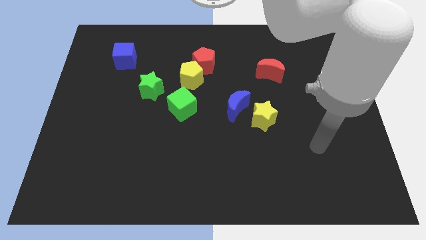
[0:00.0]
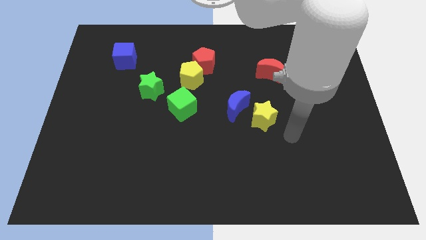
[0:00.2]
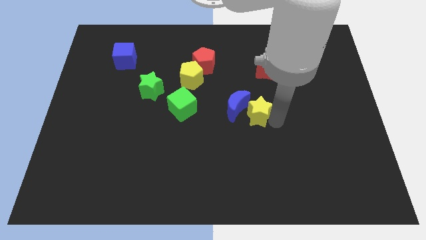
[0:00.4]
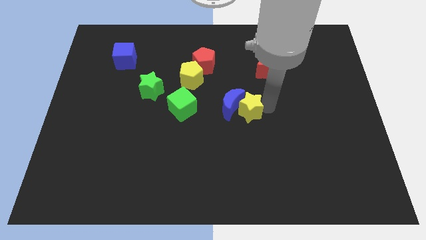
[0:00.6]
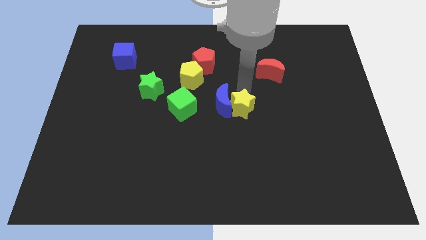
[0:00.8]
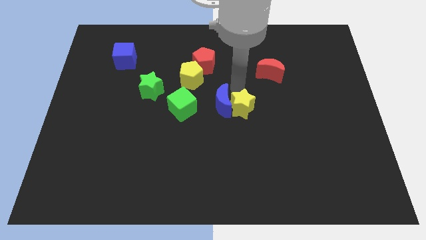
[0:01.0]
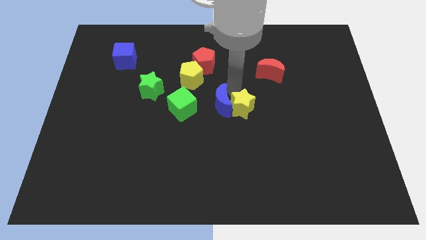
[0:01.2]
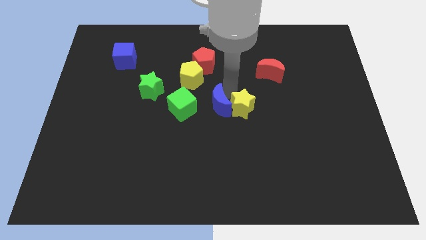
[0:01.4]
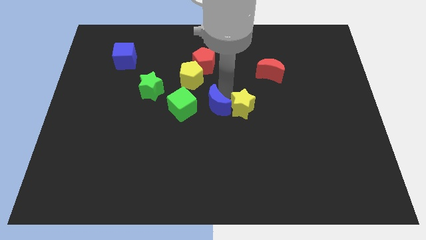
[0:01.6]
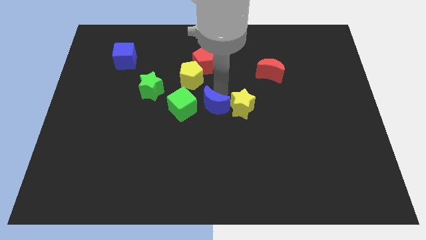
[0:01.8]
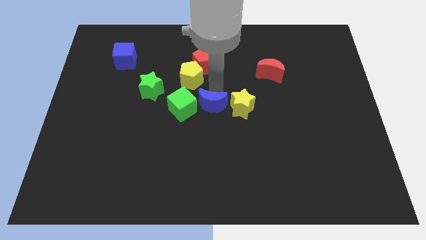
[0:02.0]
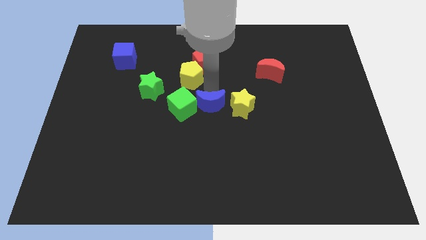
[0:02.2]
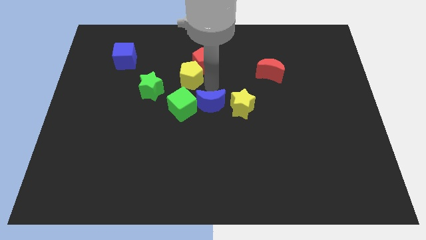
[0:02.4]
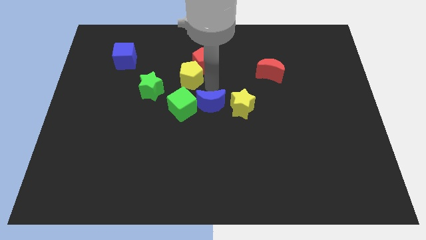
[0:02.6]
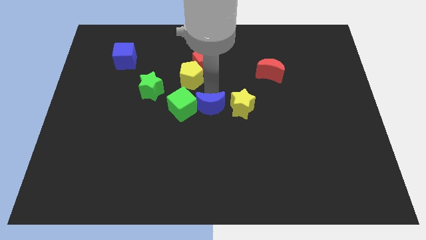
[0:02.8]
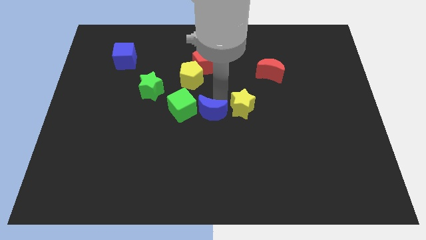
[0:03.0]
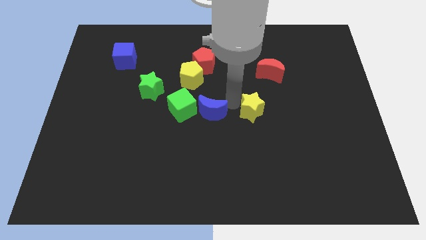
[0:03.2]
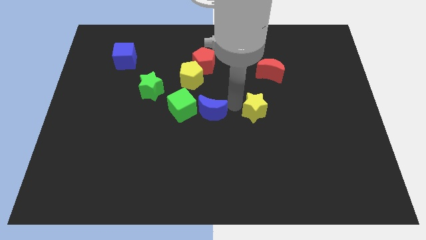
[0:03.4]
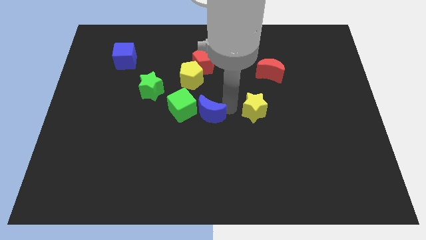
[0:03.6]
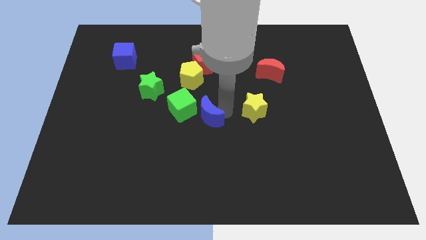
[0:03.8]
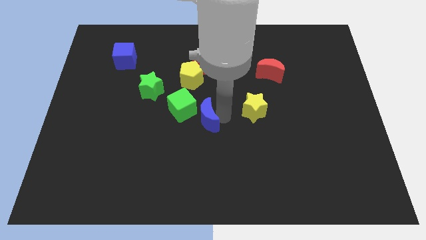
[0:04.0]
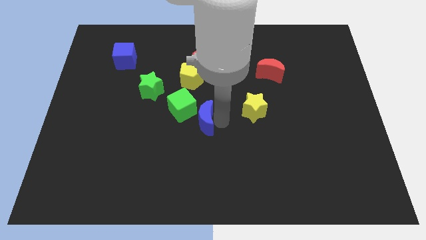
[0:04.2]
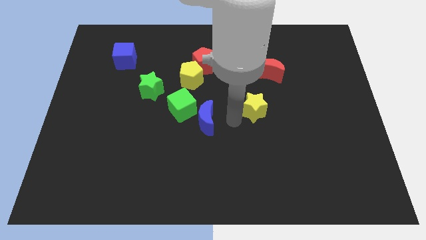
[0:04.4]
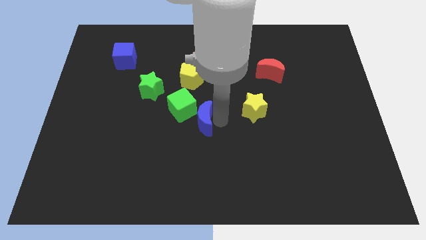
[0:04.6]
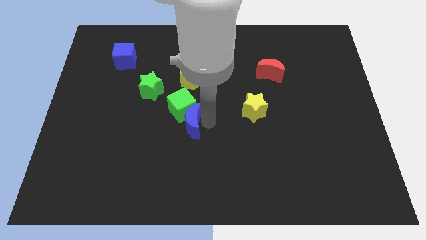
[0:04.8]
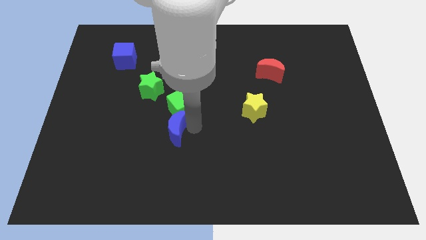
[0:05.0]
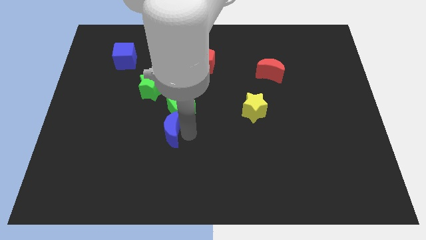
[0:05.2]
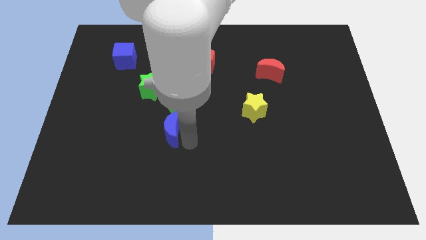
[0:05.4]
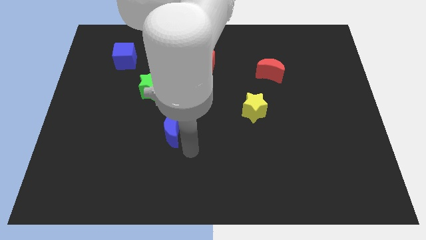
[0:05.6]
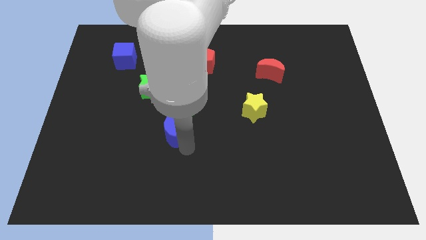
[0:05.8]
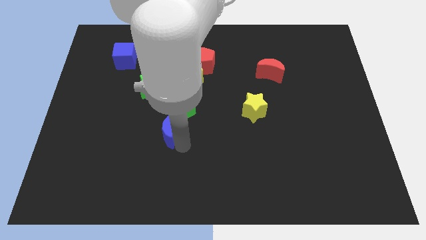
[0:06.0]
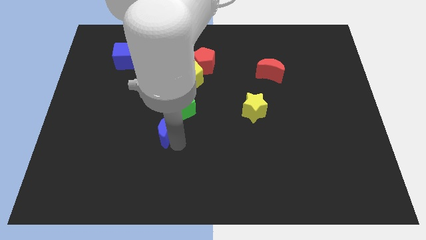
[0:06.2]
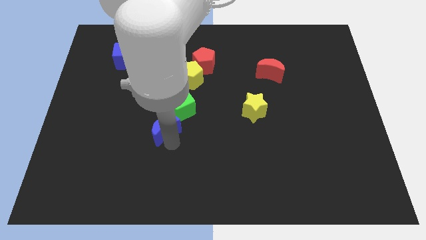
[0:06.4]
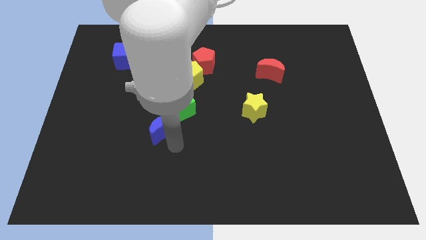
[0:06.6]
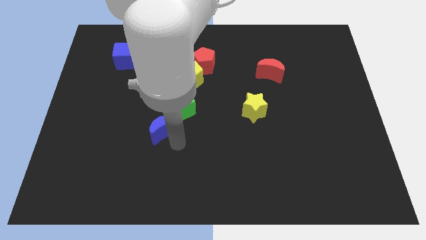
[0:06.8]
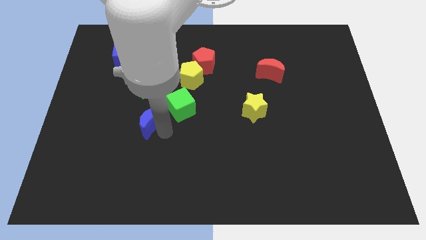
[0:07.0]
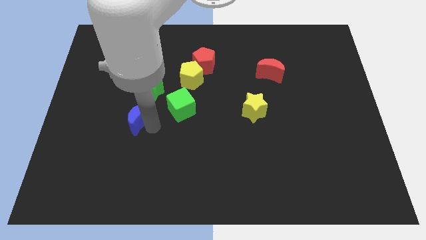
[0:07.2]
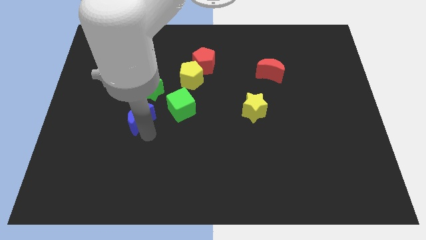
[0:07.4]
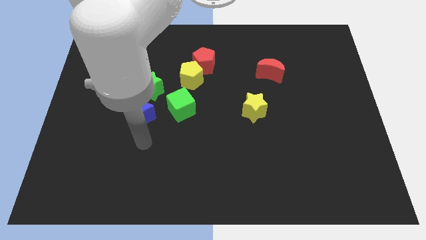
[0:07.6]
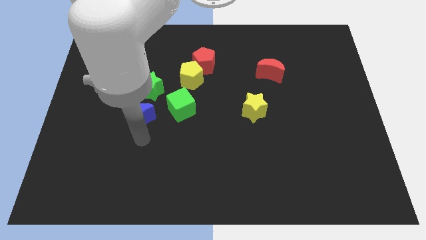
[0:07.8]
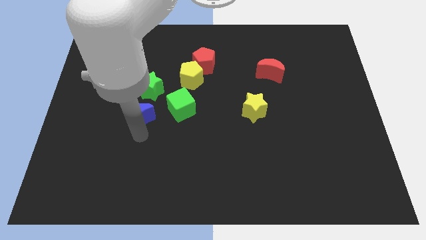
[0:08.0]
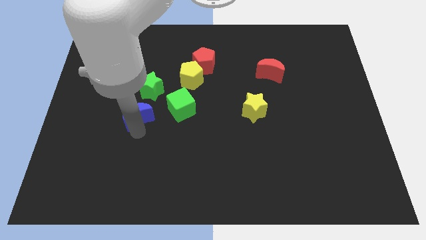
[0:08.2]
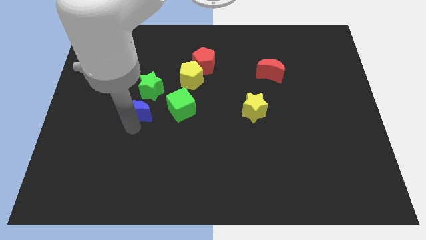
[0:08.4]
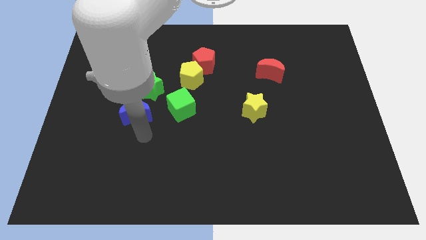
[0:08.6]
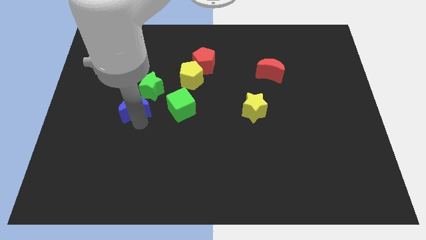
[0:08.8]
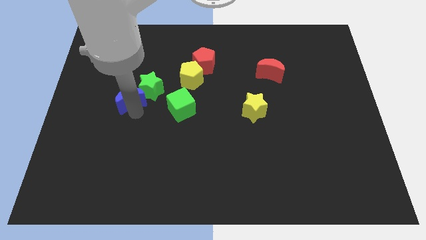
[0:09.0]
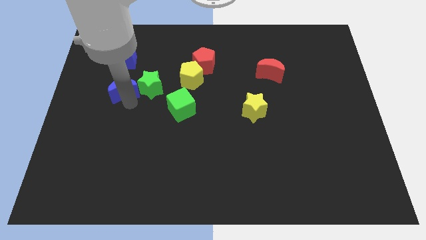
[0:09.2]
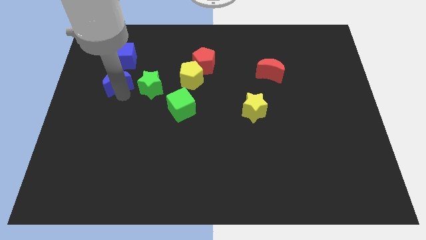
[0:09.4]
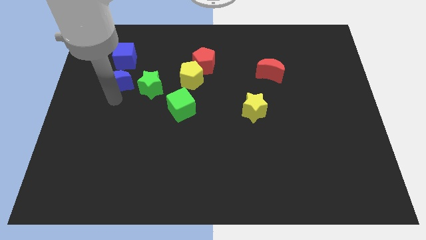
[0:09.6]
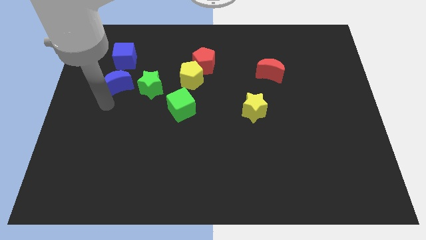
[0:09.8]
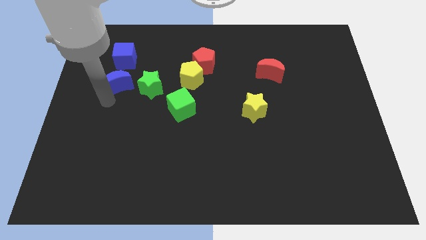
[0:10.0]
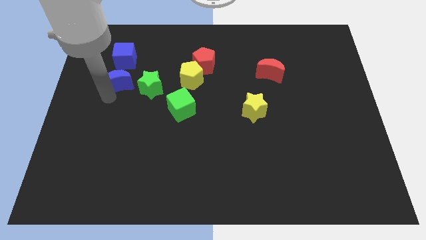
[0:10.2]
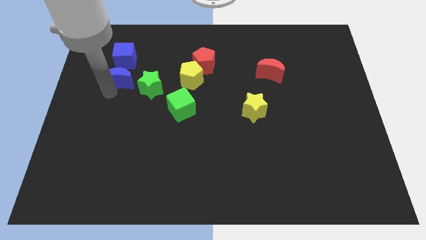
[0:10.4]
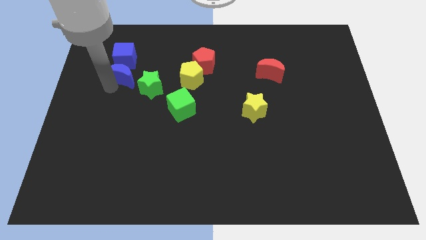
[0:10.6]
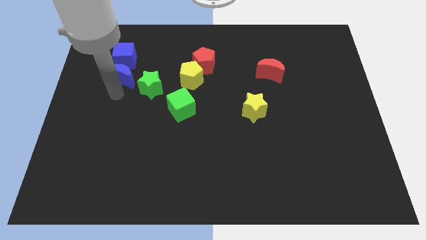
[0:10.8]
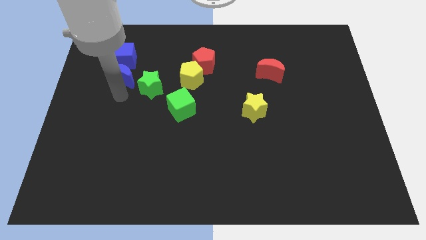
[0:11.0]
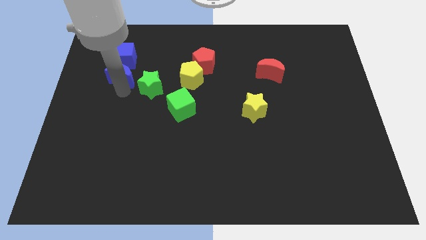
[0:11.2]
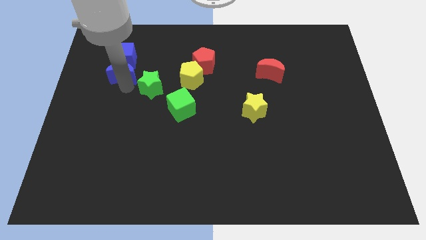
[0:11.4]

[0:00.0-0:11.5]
move the blue moon close to the blue cube

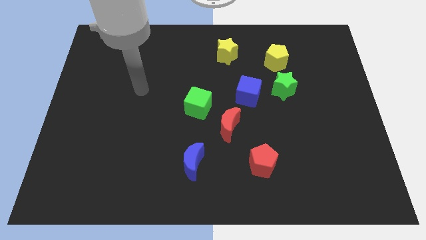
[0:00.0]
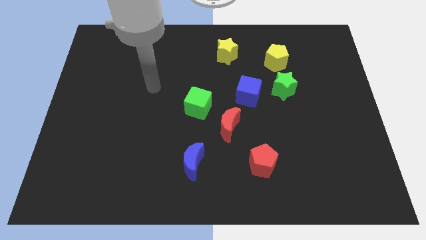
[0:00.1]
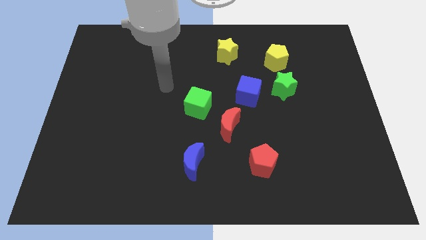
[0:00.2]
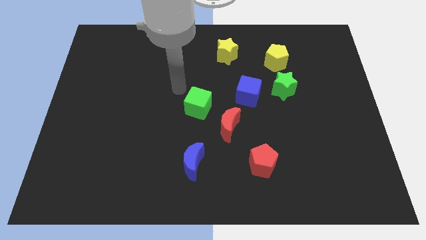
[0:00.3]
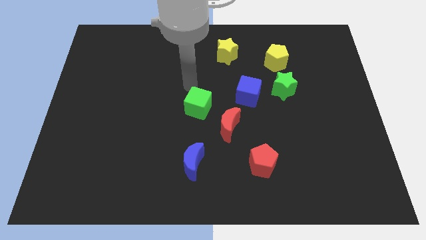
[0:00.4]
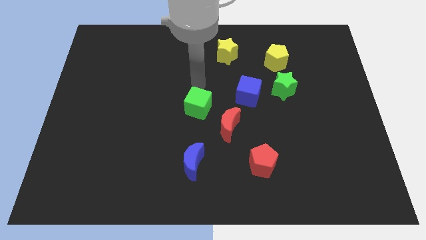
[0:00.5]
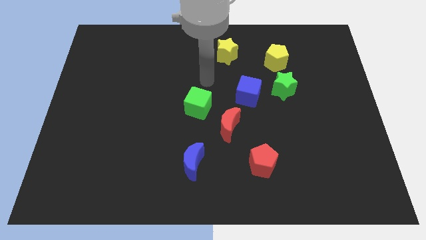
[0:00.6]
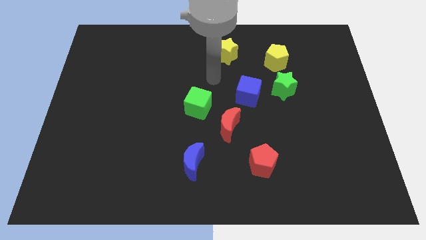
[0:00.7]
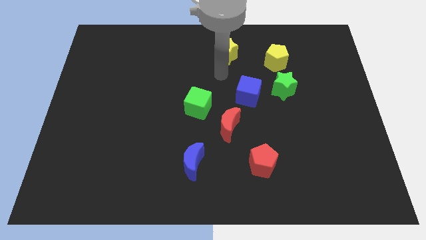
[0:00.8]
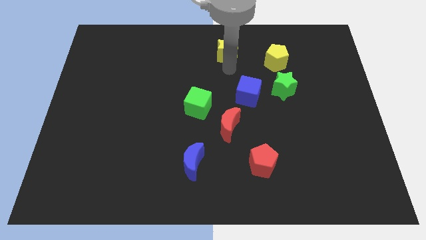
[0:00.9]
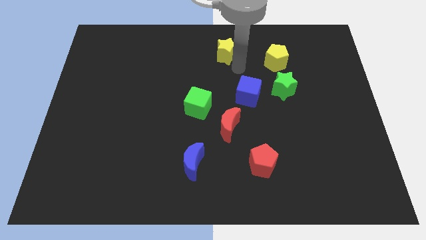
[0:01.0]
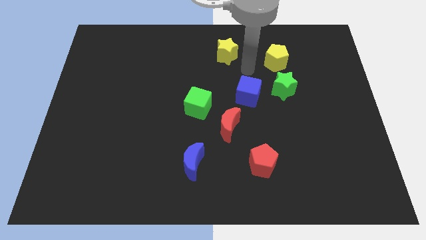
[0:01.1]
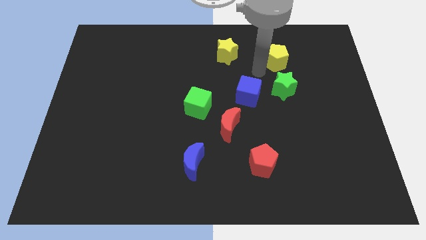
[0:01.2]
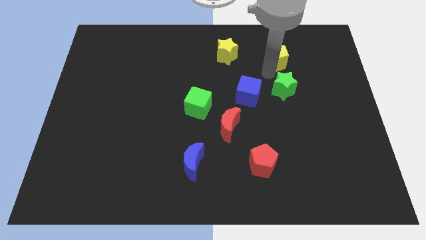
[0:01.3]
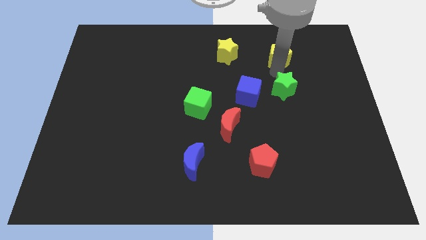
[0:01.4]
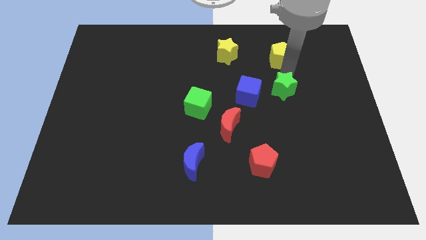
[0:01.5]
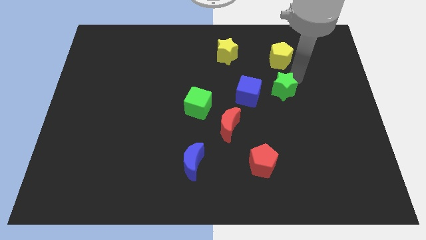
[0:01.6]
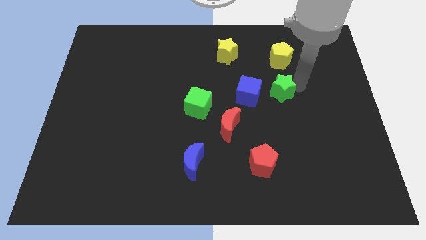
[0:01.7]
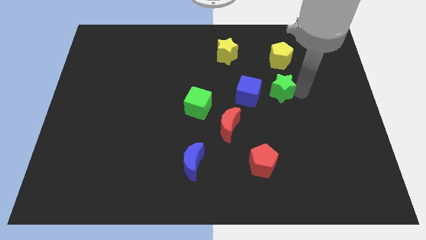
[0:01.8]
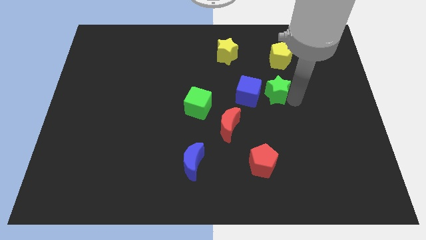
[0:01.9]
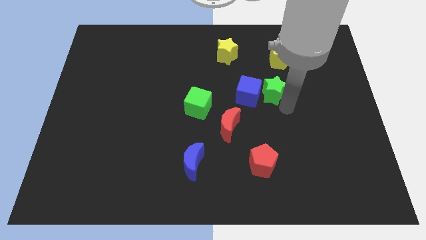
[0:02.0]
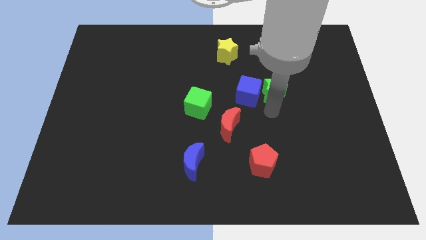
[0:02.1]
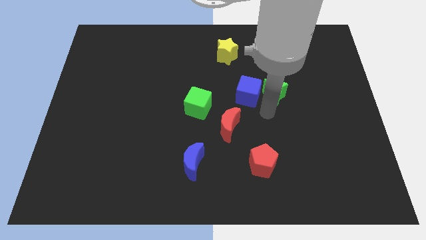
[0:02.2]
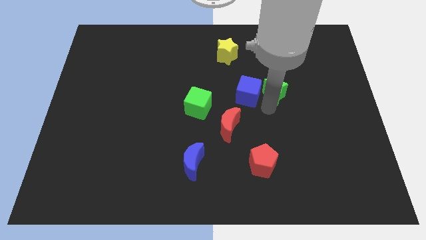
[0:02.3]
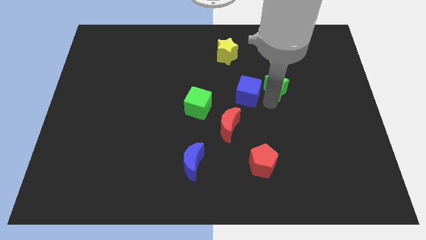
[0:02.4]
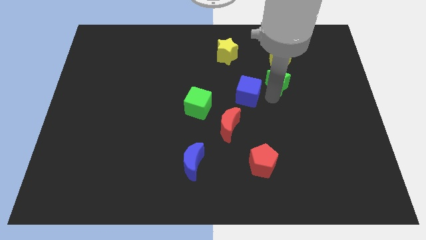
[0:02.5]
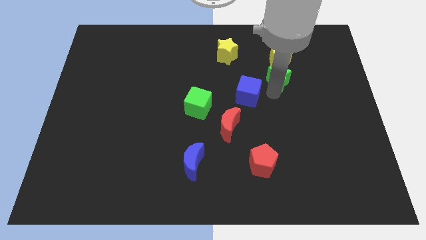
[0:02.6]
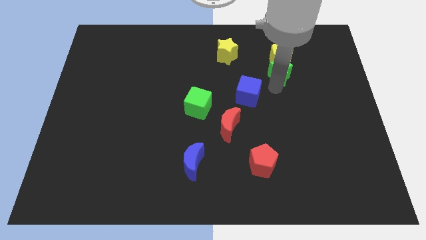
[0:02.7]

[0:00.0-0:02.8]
push the green star towards the yellow pentagon
